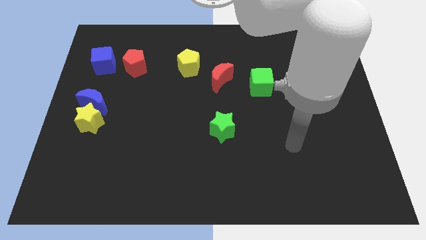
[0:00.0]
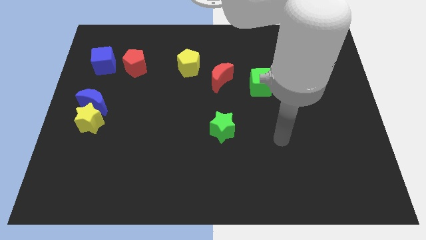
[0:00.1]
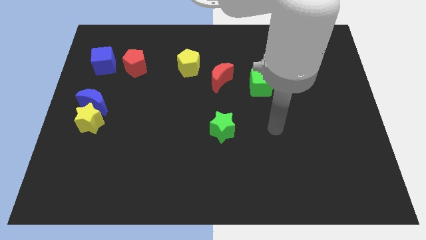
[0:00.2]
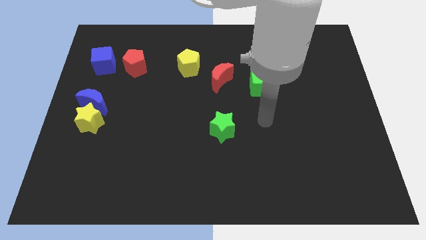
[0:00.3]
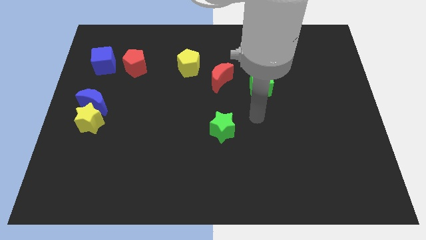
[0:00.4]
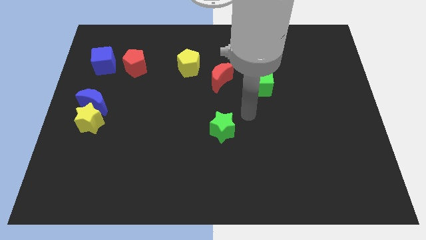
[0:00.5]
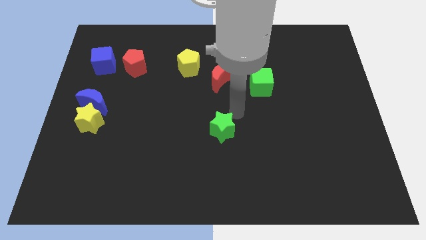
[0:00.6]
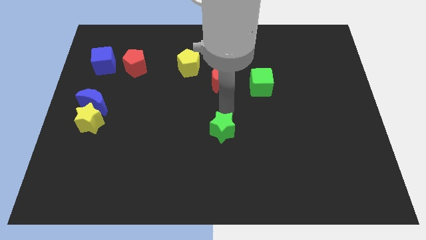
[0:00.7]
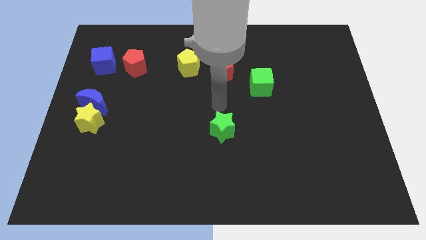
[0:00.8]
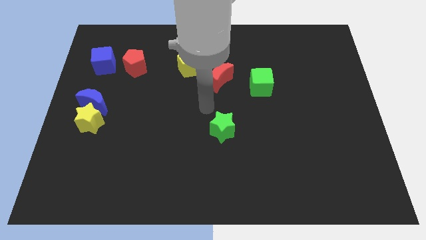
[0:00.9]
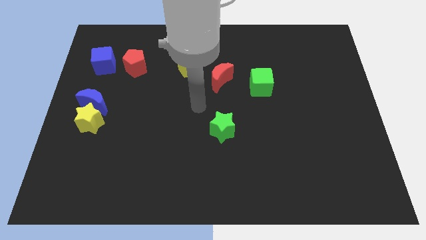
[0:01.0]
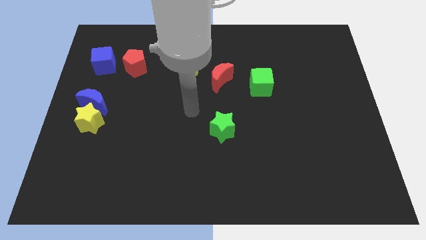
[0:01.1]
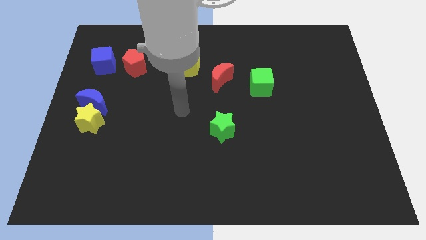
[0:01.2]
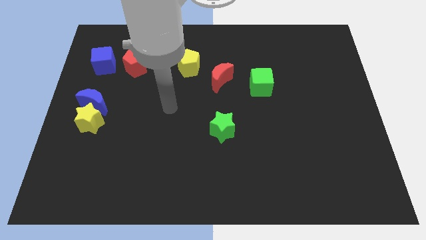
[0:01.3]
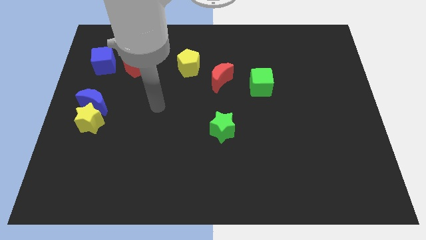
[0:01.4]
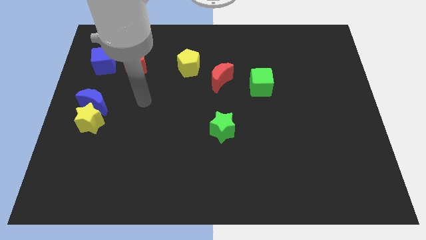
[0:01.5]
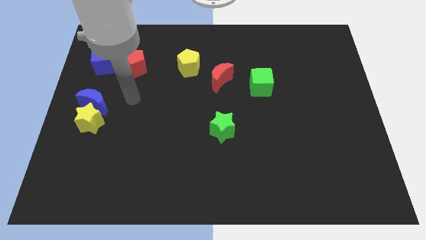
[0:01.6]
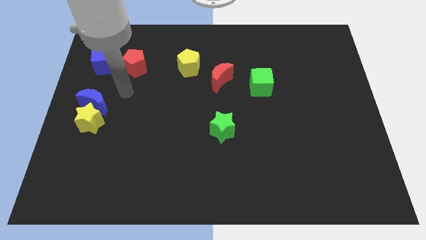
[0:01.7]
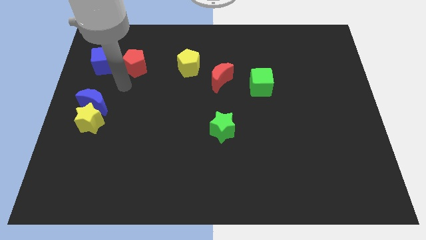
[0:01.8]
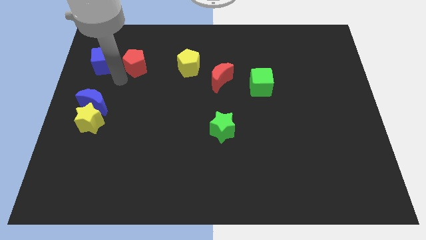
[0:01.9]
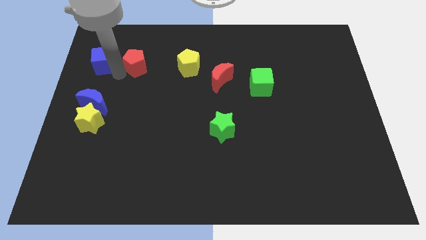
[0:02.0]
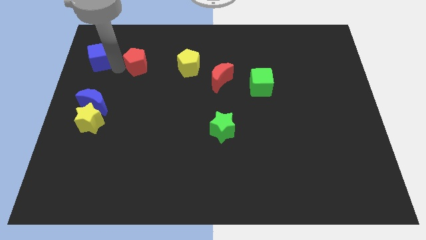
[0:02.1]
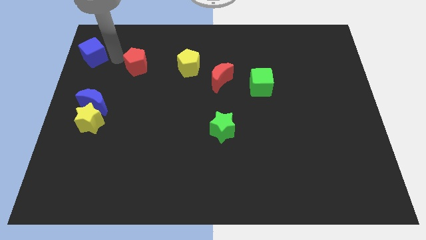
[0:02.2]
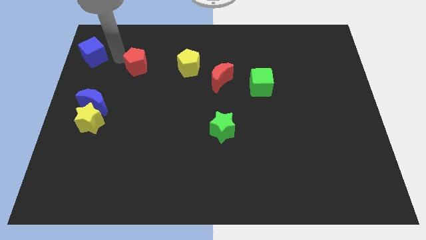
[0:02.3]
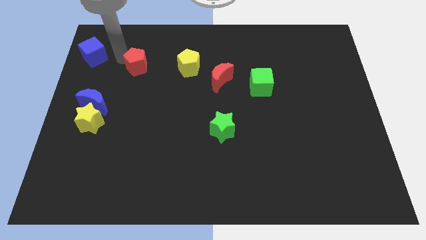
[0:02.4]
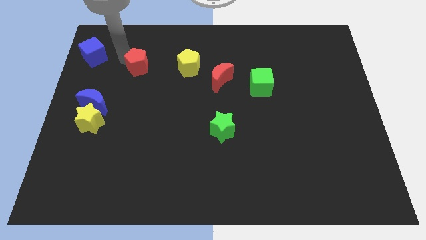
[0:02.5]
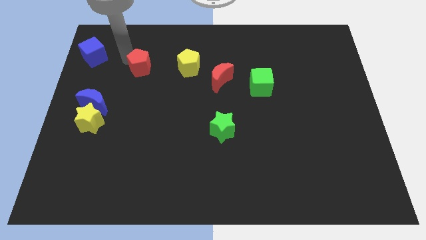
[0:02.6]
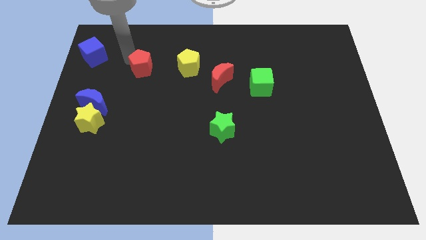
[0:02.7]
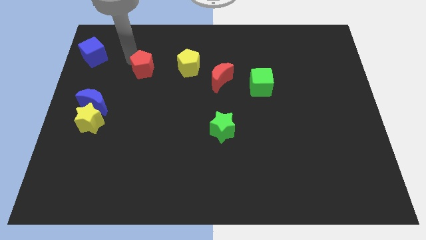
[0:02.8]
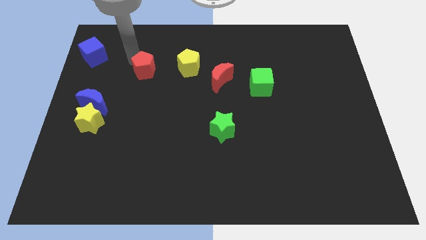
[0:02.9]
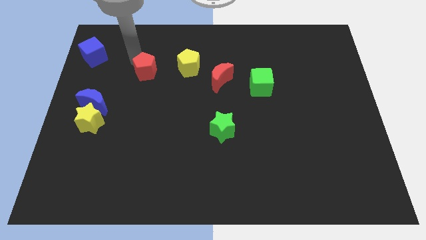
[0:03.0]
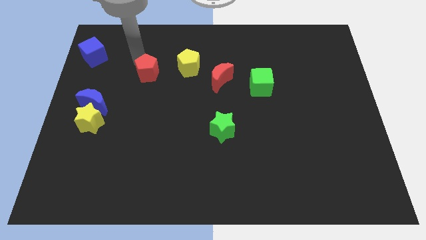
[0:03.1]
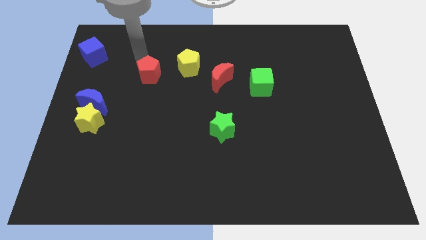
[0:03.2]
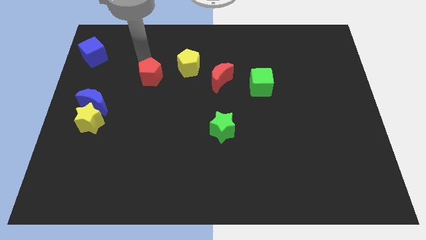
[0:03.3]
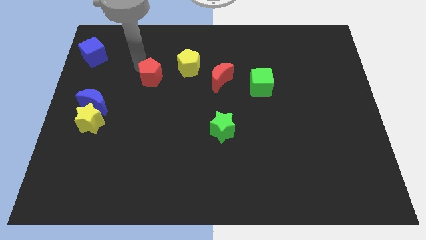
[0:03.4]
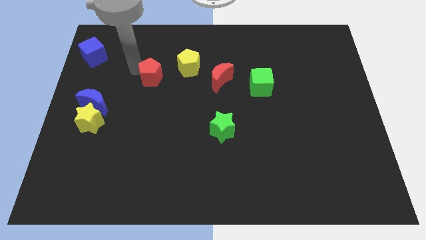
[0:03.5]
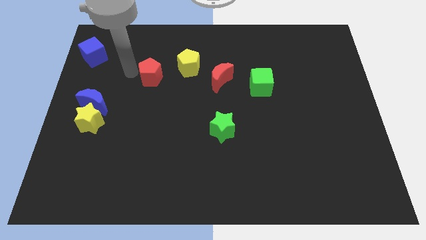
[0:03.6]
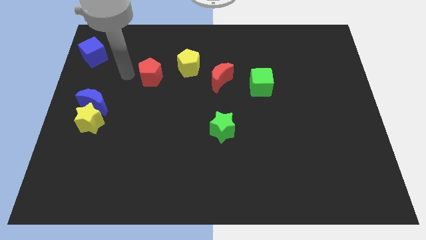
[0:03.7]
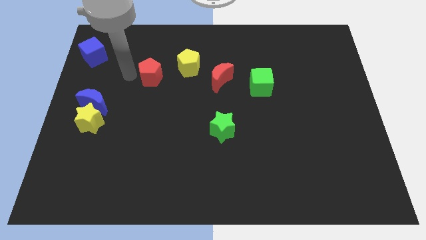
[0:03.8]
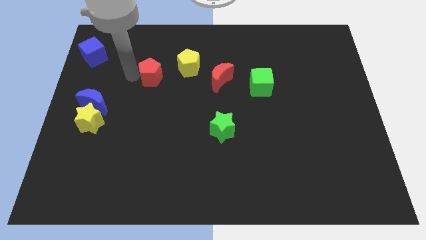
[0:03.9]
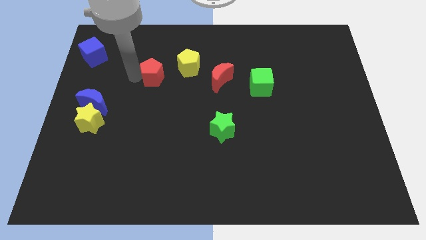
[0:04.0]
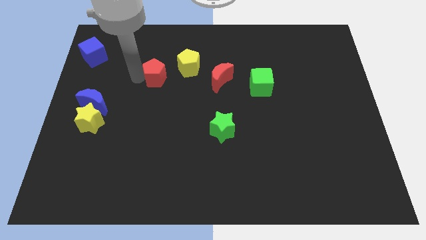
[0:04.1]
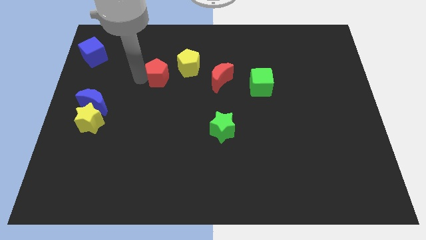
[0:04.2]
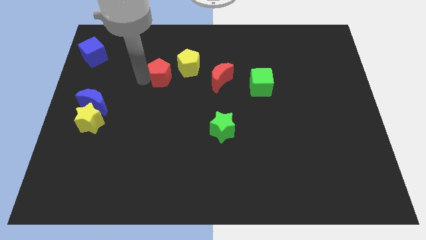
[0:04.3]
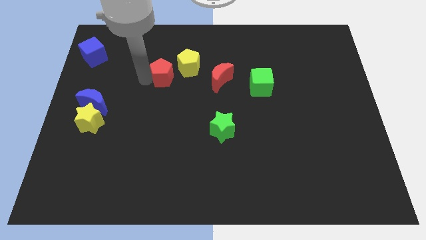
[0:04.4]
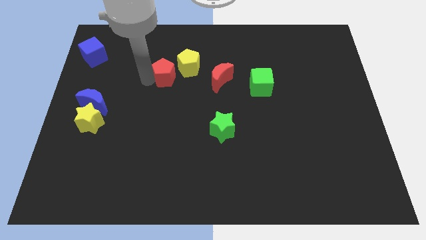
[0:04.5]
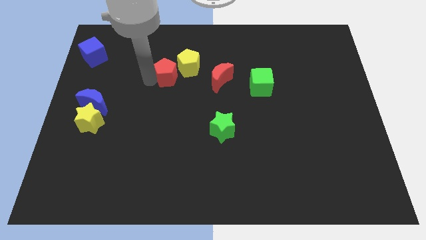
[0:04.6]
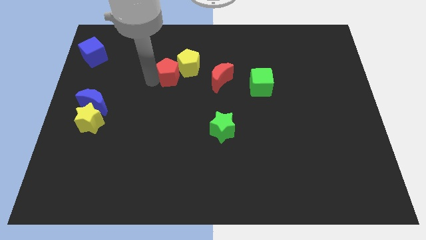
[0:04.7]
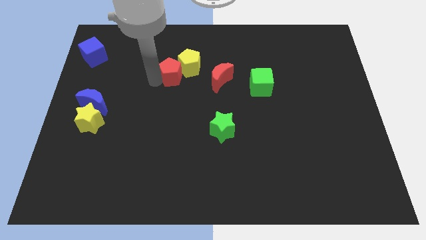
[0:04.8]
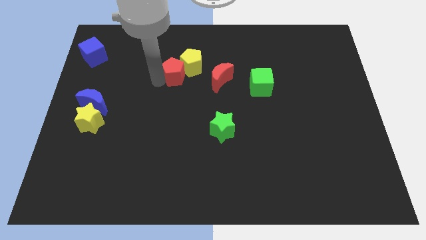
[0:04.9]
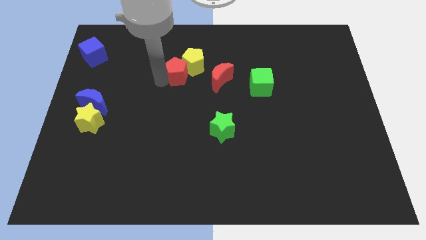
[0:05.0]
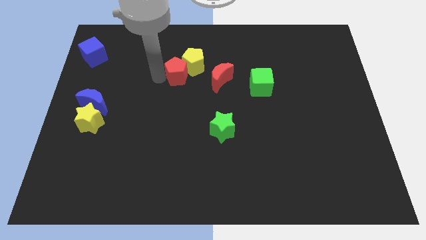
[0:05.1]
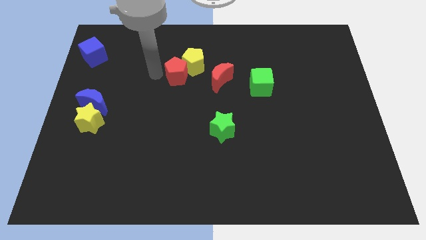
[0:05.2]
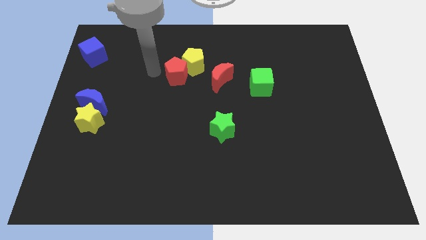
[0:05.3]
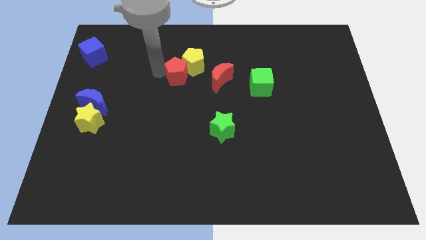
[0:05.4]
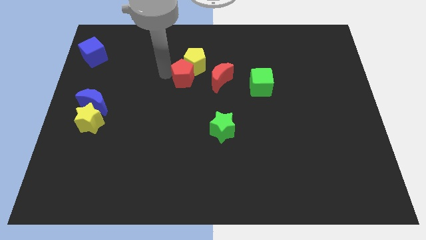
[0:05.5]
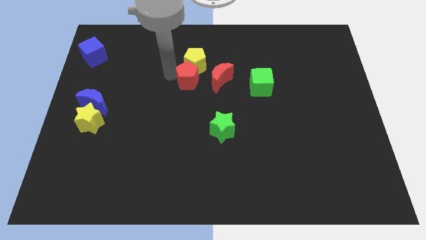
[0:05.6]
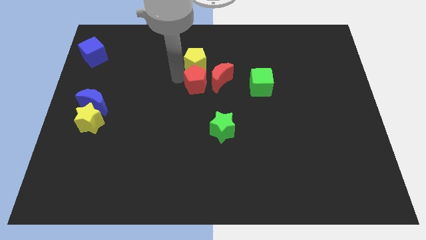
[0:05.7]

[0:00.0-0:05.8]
push the red pentagon close to the red moon

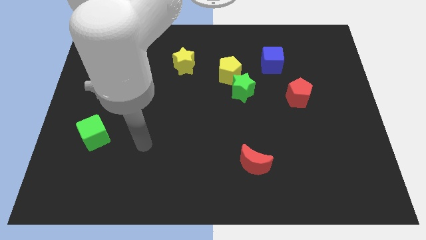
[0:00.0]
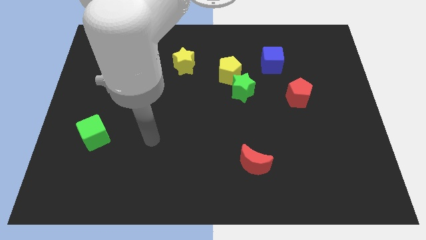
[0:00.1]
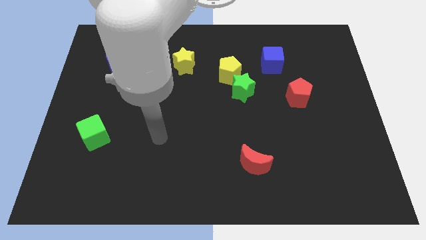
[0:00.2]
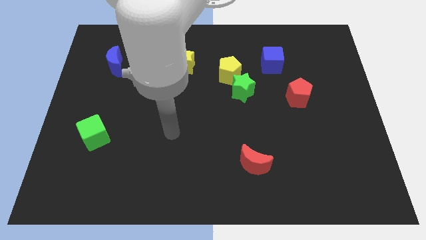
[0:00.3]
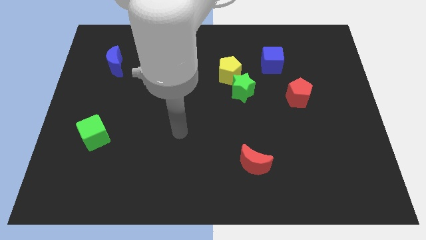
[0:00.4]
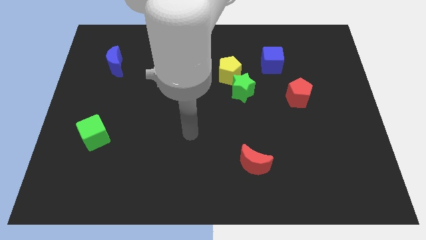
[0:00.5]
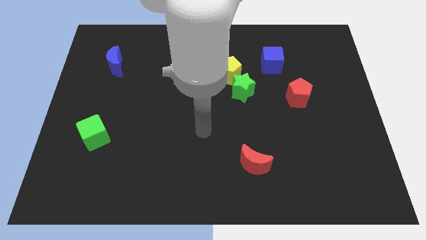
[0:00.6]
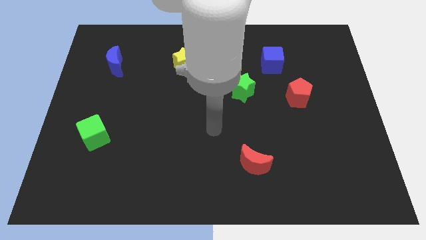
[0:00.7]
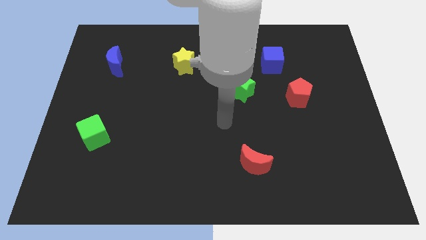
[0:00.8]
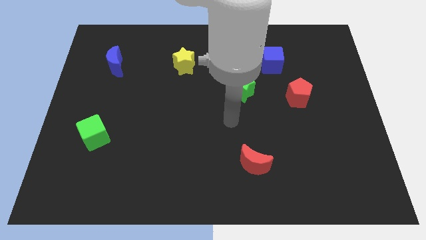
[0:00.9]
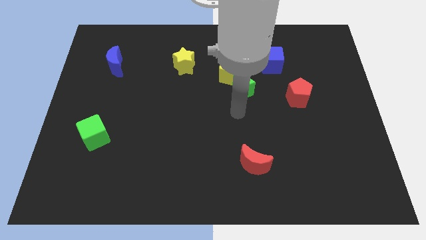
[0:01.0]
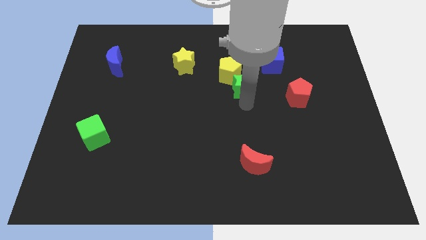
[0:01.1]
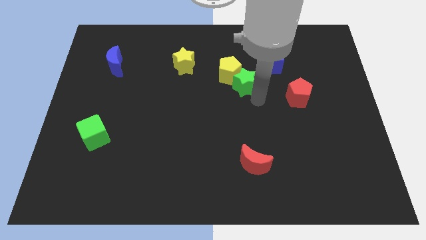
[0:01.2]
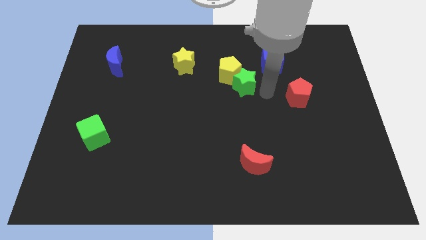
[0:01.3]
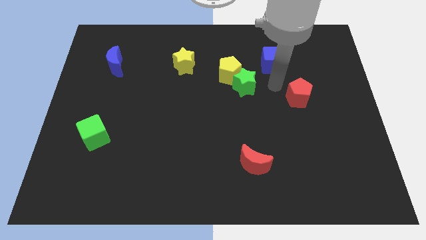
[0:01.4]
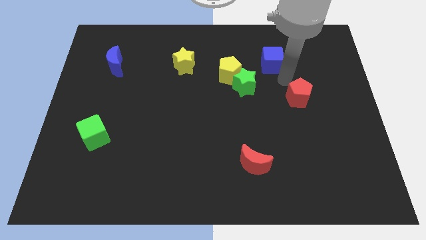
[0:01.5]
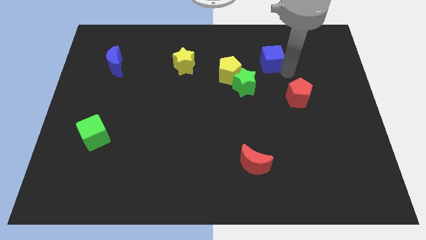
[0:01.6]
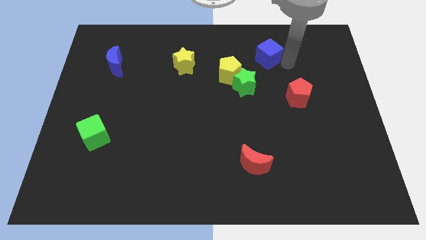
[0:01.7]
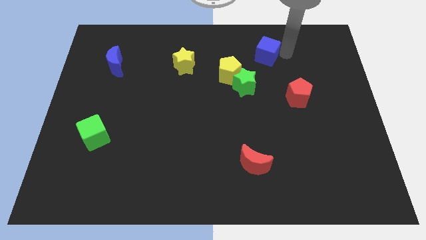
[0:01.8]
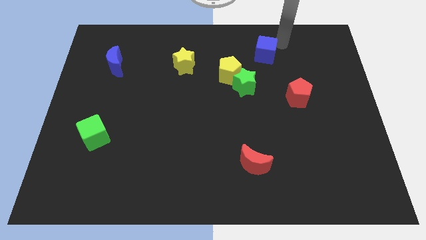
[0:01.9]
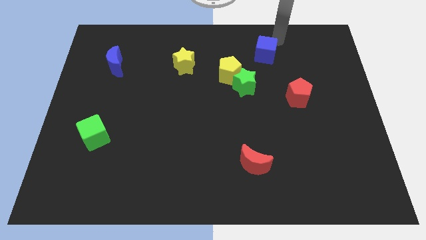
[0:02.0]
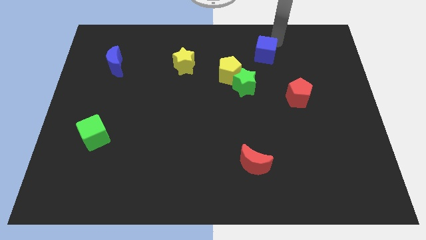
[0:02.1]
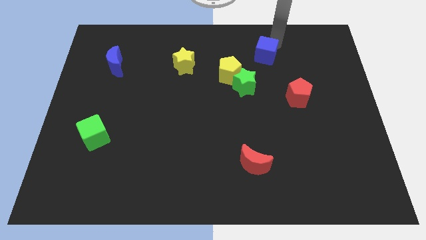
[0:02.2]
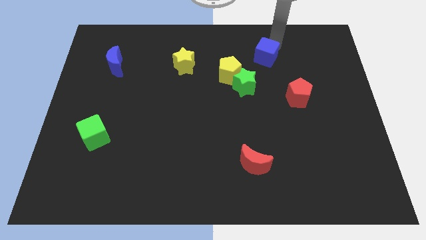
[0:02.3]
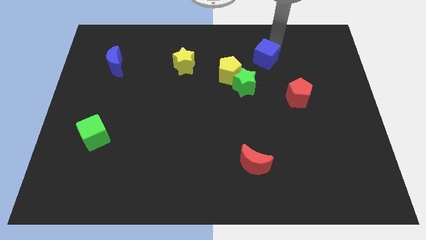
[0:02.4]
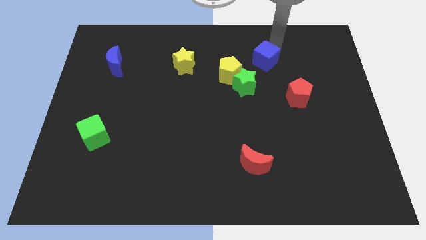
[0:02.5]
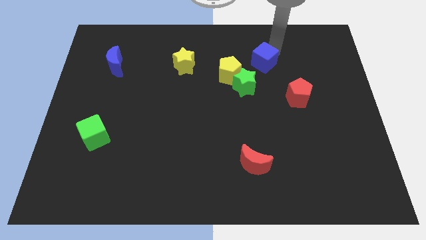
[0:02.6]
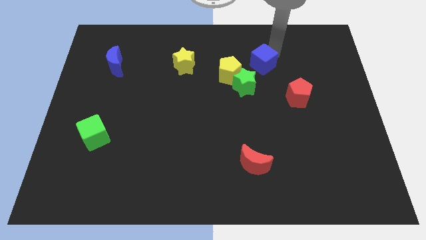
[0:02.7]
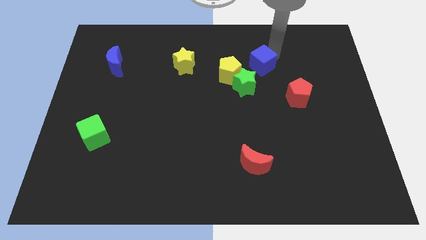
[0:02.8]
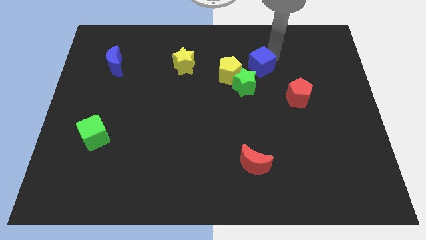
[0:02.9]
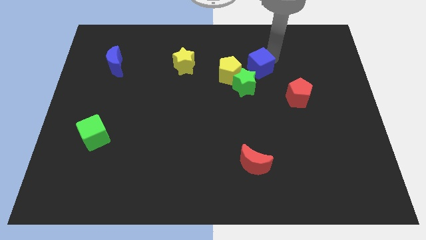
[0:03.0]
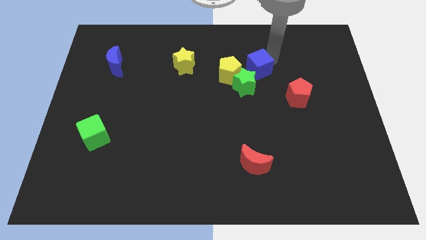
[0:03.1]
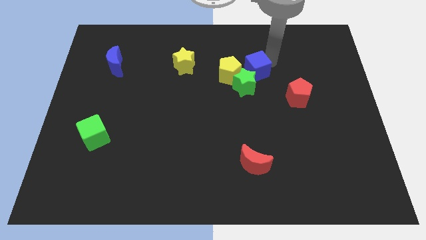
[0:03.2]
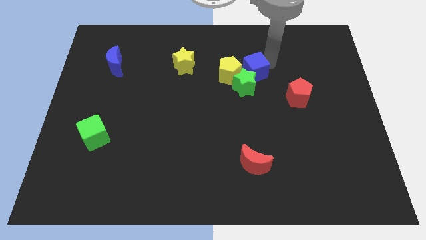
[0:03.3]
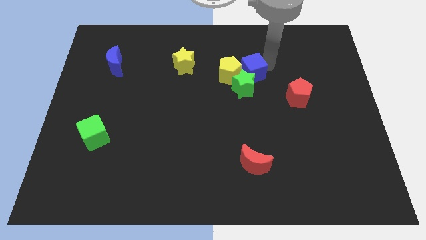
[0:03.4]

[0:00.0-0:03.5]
slide the blue cube towards the yellow pentagon
